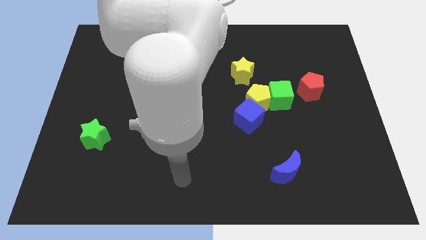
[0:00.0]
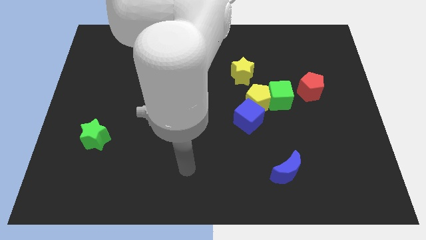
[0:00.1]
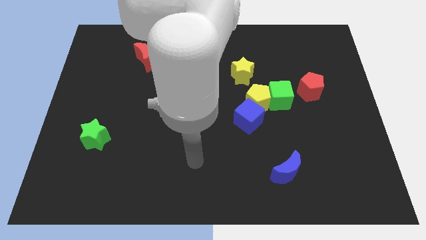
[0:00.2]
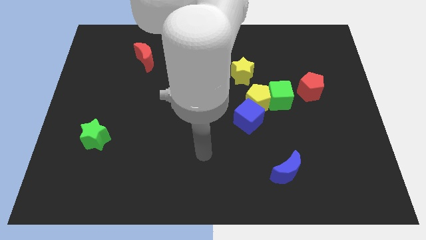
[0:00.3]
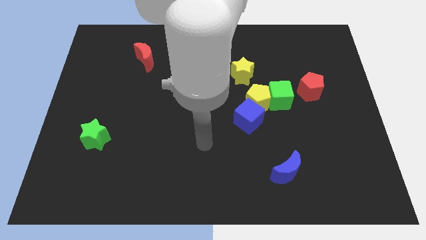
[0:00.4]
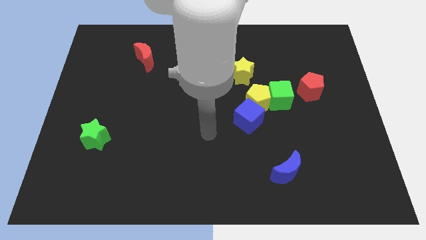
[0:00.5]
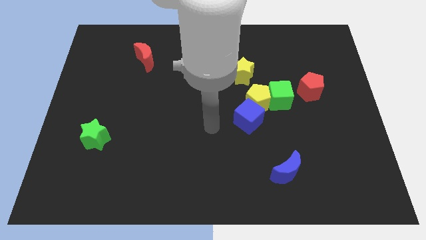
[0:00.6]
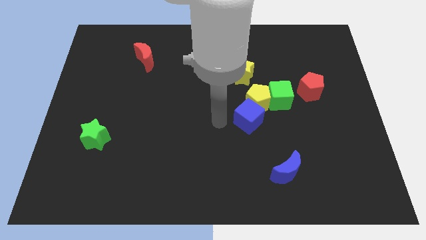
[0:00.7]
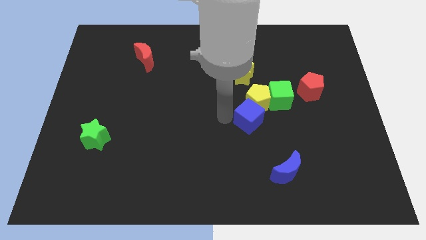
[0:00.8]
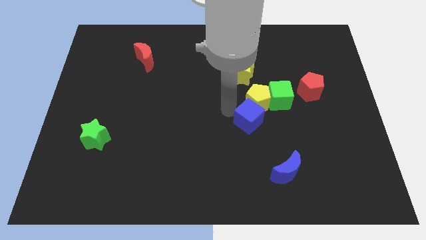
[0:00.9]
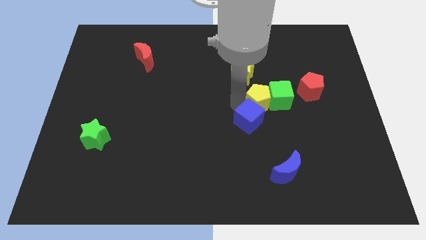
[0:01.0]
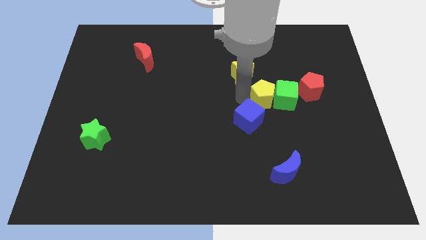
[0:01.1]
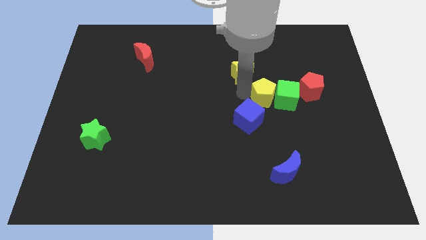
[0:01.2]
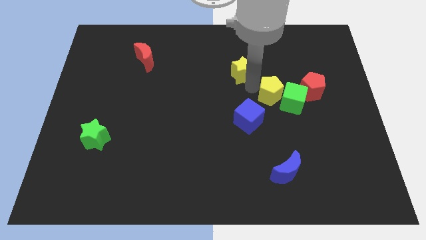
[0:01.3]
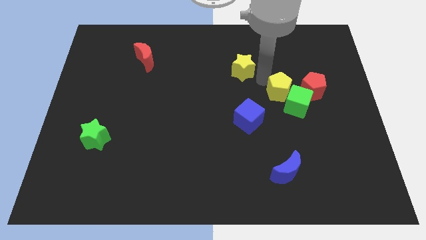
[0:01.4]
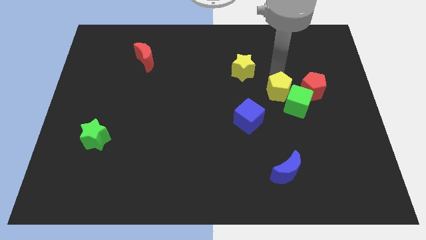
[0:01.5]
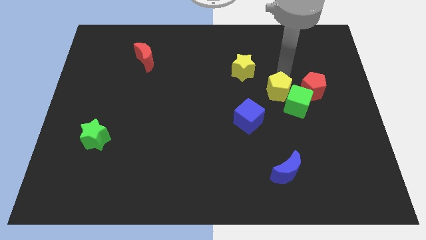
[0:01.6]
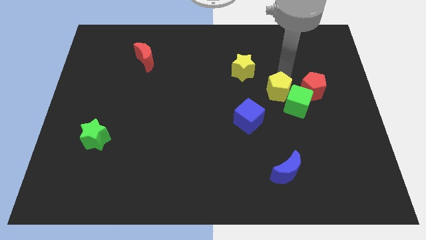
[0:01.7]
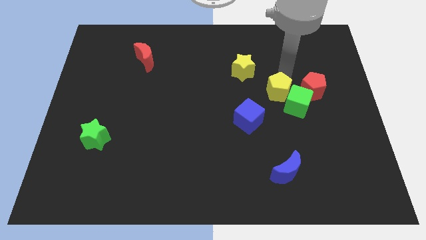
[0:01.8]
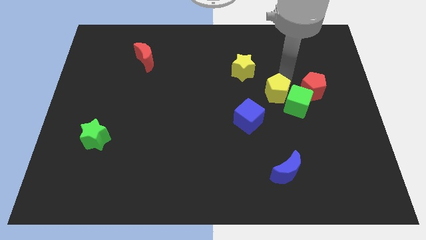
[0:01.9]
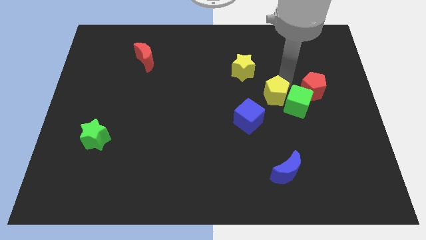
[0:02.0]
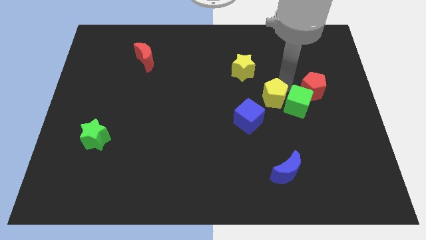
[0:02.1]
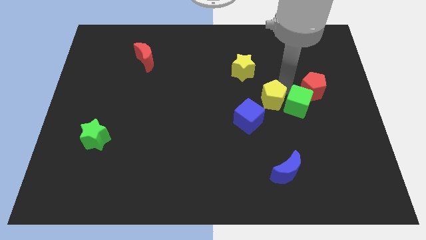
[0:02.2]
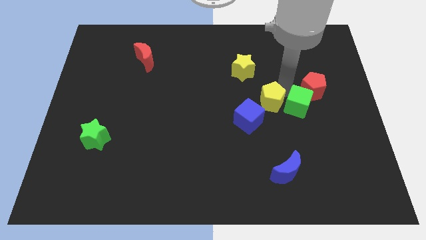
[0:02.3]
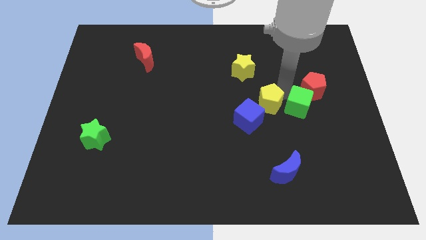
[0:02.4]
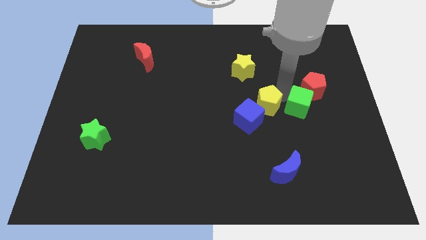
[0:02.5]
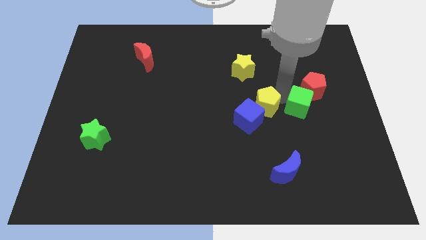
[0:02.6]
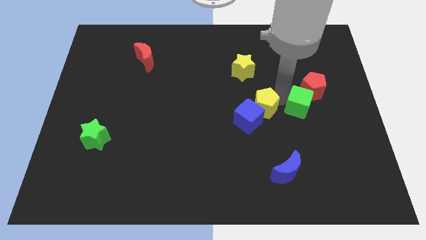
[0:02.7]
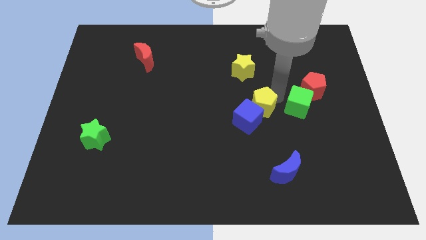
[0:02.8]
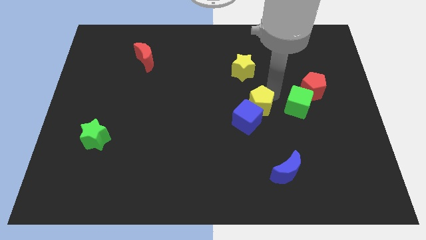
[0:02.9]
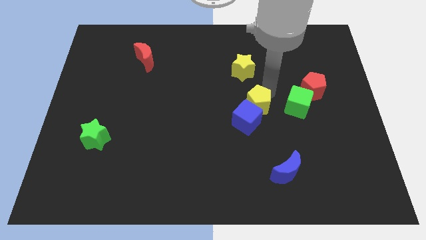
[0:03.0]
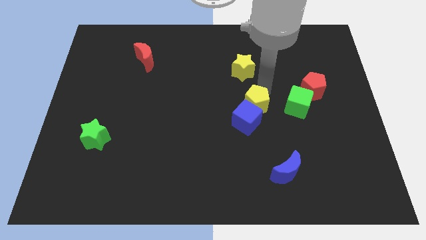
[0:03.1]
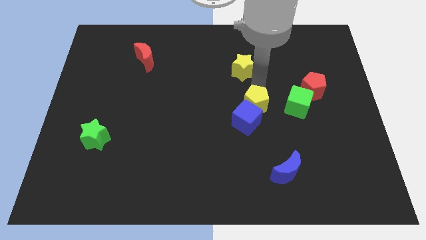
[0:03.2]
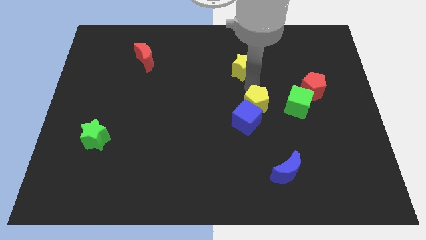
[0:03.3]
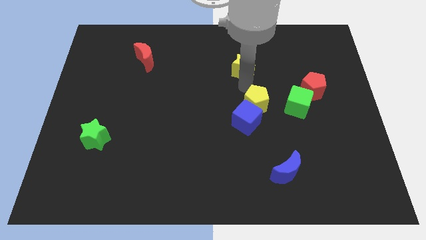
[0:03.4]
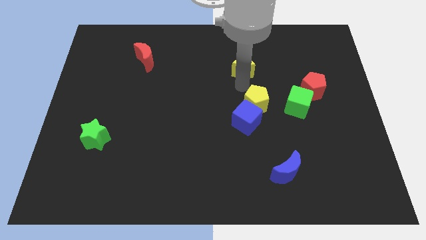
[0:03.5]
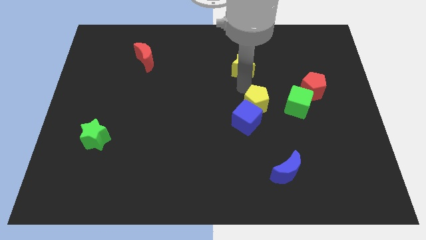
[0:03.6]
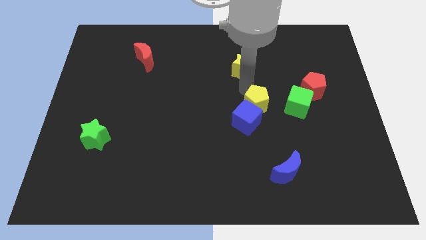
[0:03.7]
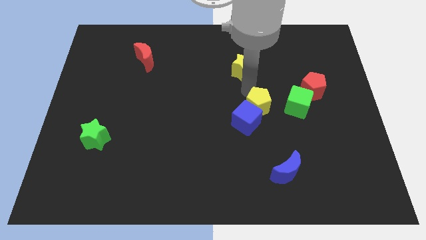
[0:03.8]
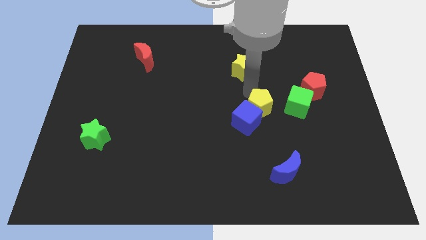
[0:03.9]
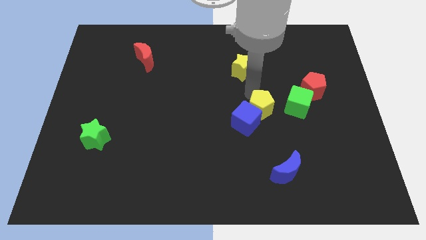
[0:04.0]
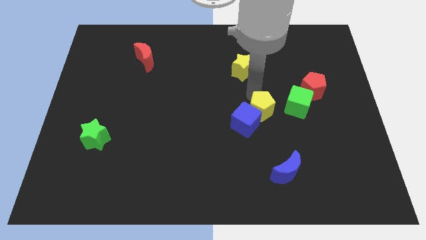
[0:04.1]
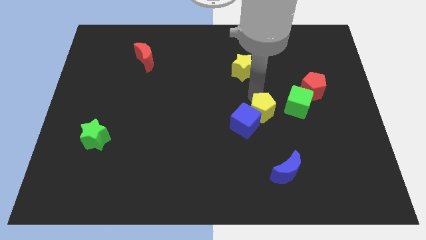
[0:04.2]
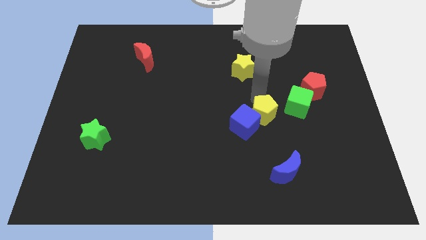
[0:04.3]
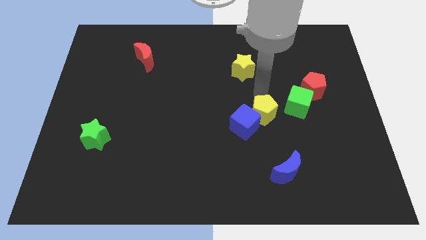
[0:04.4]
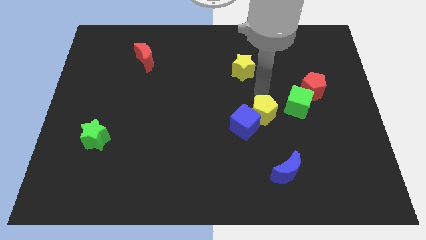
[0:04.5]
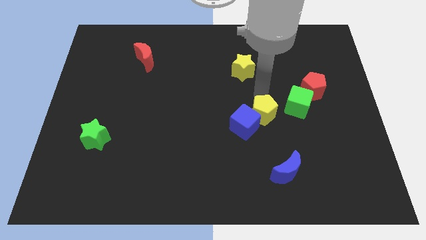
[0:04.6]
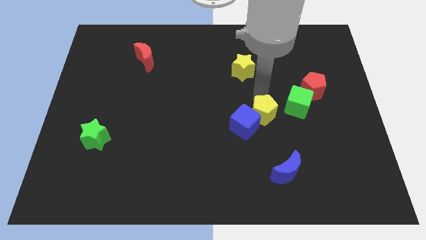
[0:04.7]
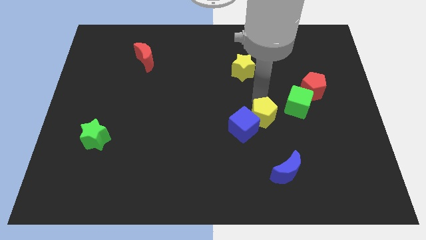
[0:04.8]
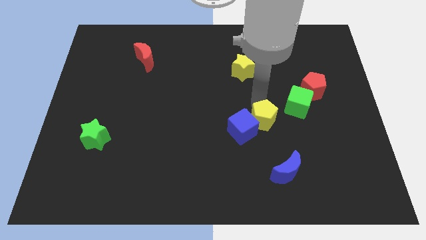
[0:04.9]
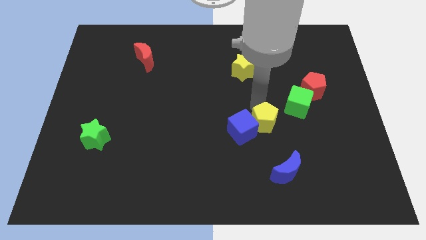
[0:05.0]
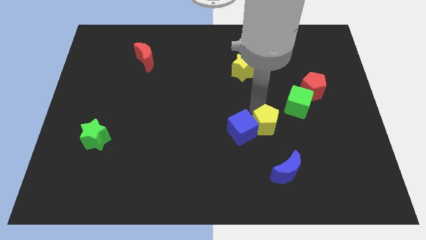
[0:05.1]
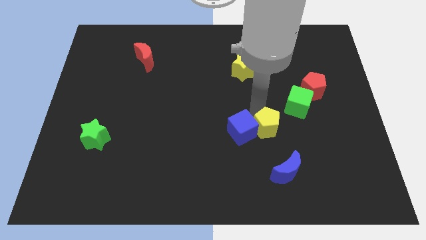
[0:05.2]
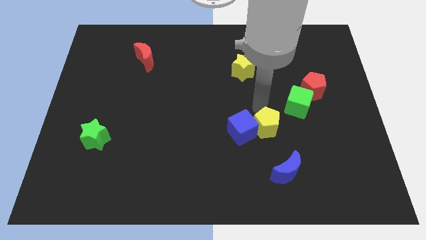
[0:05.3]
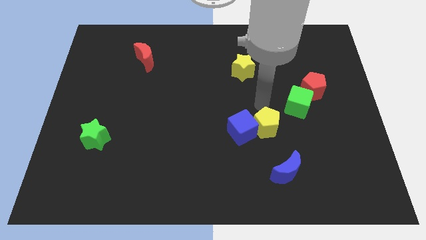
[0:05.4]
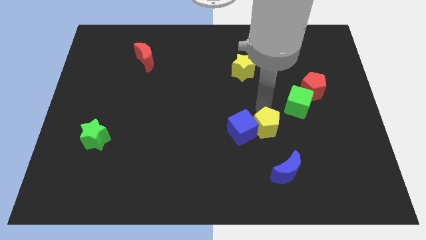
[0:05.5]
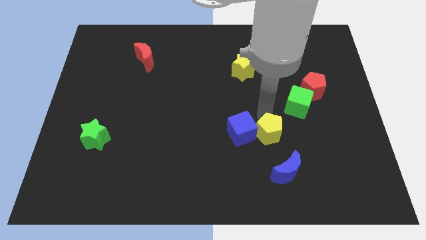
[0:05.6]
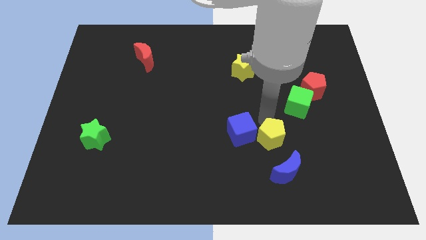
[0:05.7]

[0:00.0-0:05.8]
move the yellow pentagon away from the green cube, blue cube, and yellow star

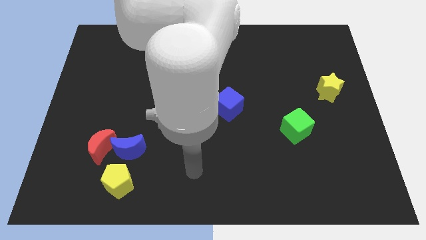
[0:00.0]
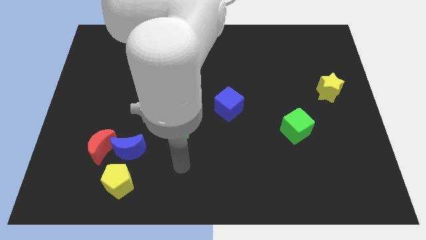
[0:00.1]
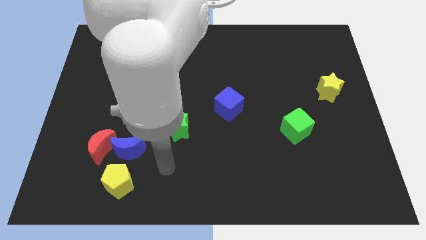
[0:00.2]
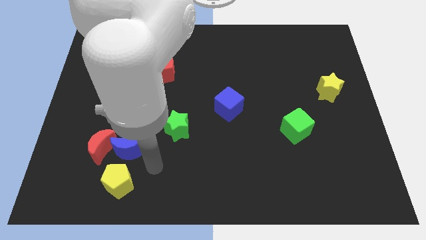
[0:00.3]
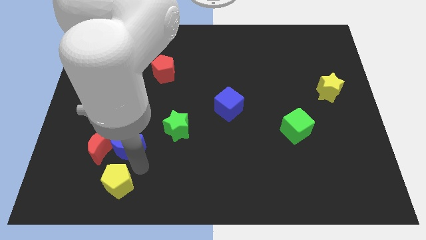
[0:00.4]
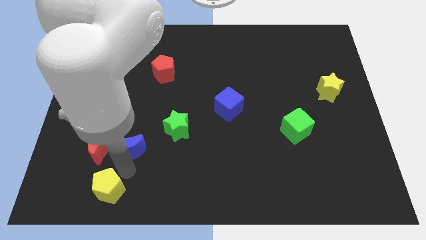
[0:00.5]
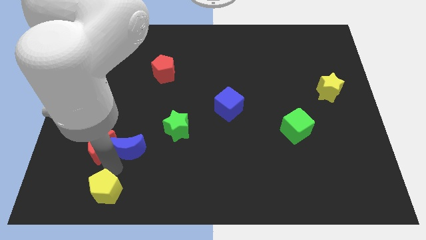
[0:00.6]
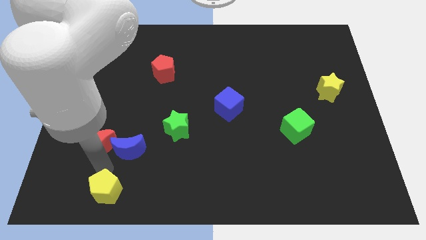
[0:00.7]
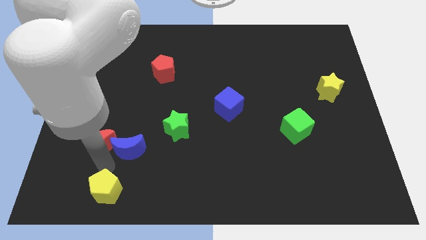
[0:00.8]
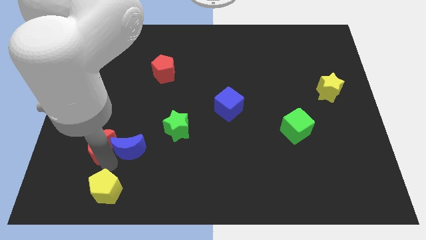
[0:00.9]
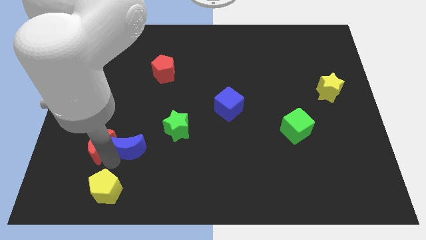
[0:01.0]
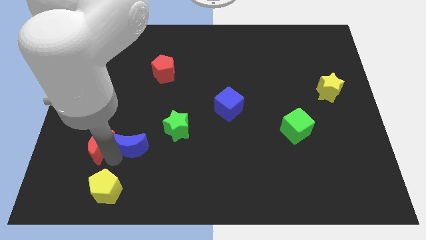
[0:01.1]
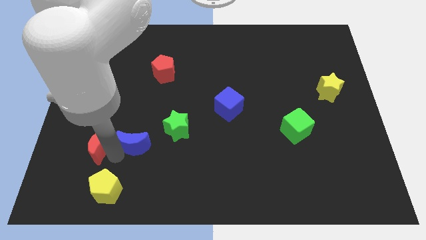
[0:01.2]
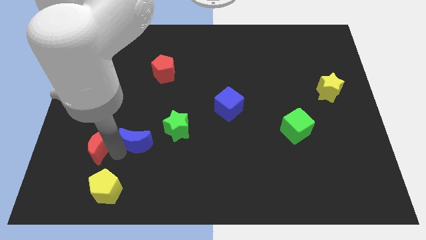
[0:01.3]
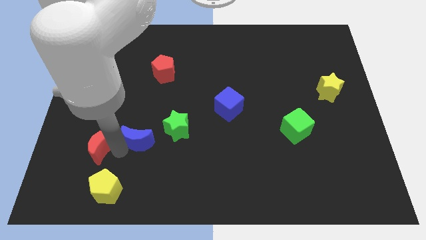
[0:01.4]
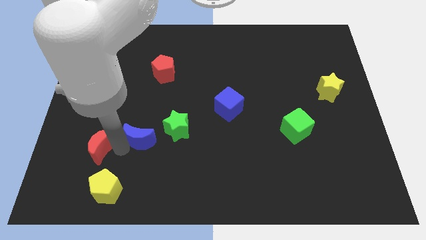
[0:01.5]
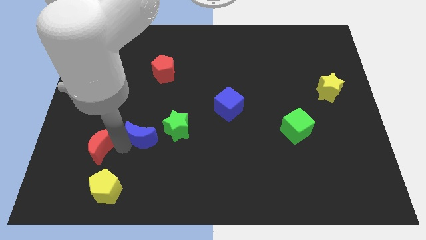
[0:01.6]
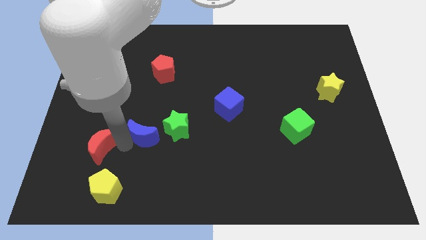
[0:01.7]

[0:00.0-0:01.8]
separate the blue moon from the red moon and yellow pentagon

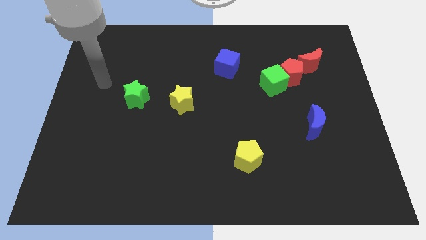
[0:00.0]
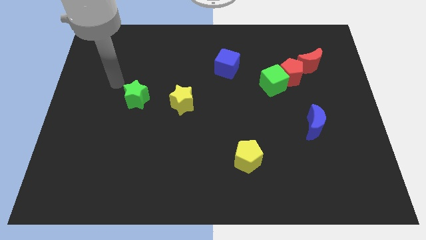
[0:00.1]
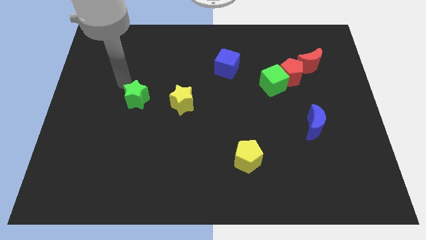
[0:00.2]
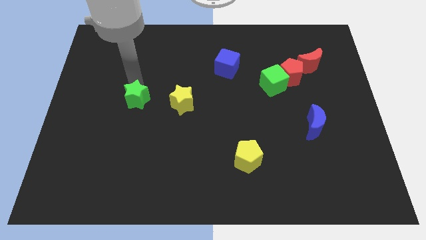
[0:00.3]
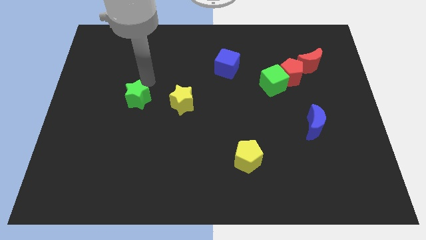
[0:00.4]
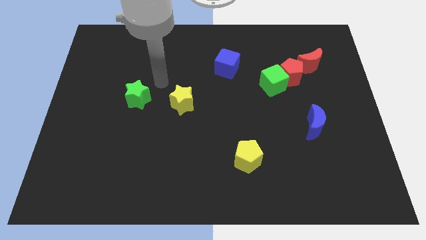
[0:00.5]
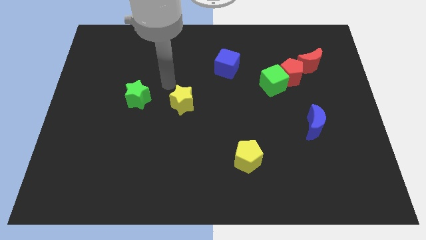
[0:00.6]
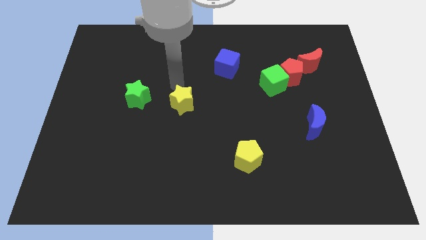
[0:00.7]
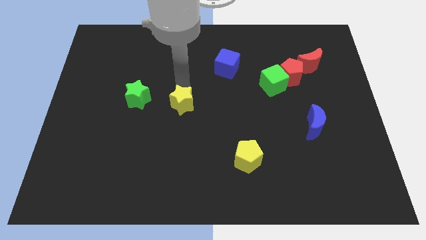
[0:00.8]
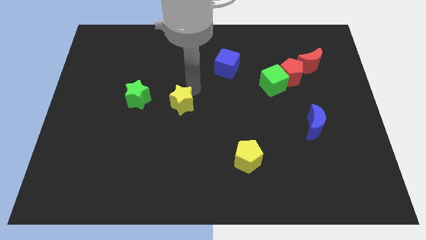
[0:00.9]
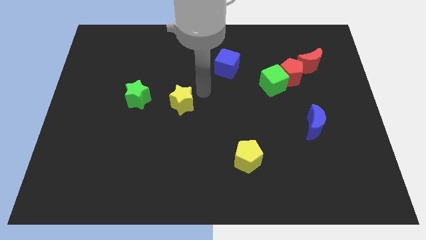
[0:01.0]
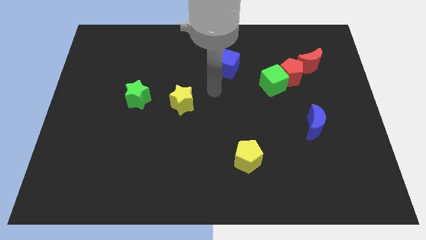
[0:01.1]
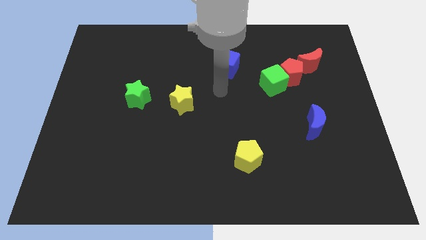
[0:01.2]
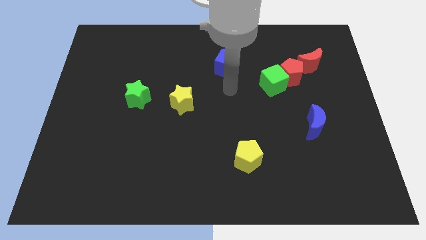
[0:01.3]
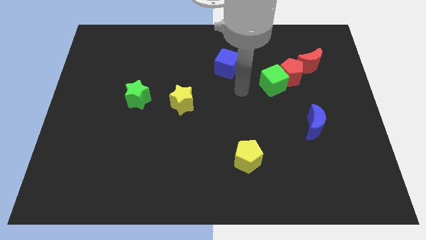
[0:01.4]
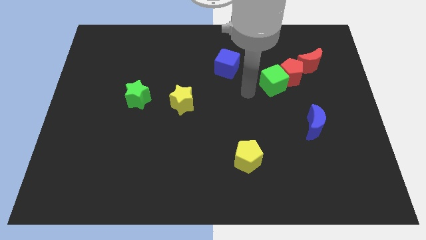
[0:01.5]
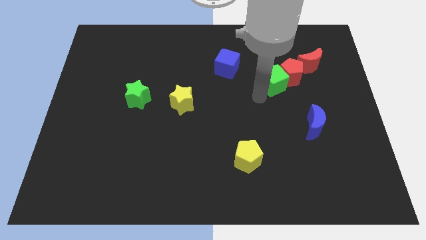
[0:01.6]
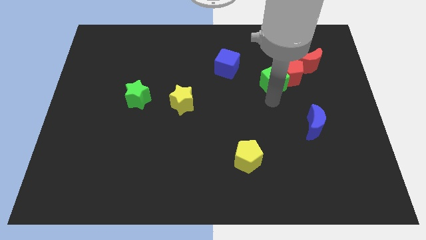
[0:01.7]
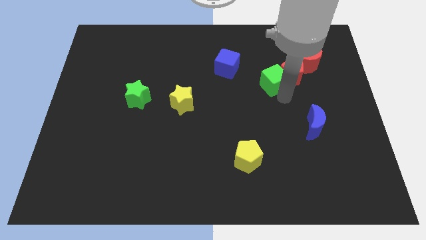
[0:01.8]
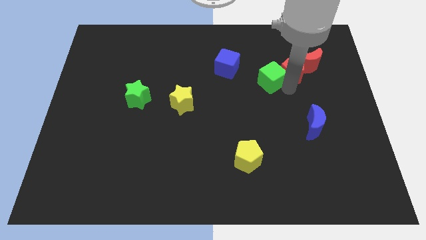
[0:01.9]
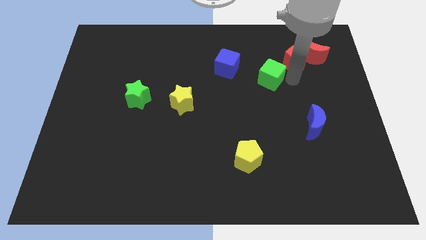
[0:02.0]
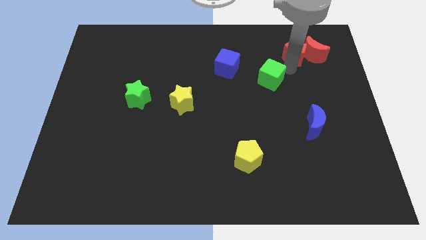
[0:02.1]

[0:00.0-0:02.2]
separate the green cube from the red pentagon
